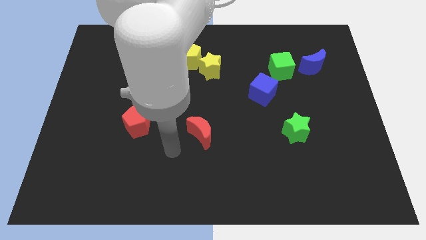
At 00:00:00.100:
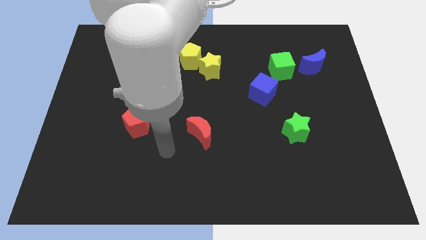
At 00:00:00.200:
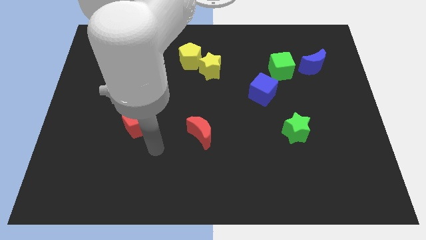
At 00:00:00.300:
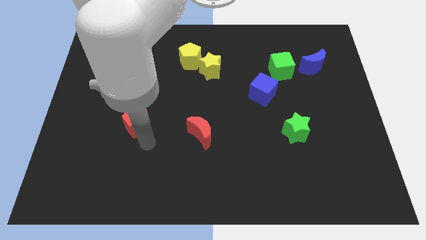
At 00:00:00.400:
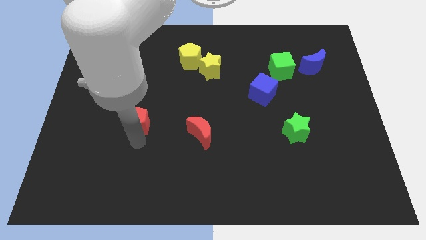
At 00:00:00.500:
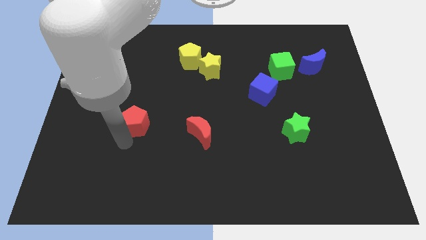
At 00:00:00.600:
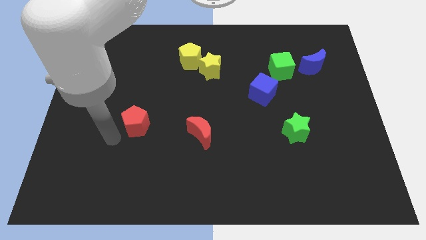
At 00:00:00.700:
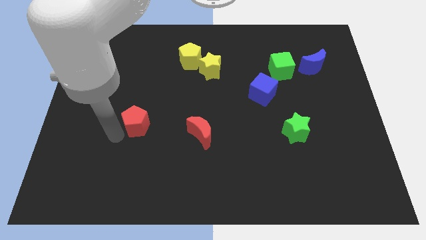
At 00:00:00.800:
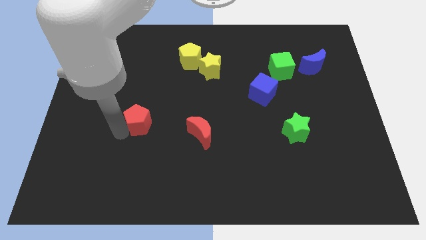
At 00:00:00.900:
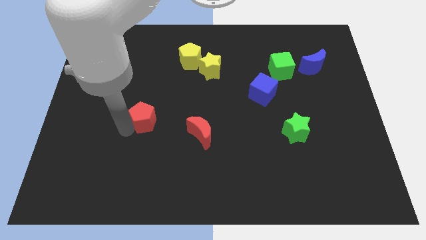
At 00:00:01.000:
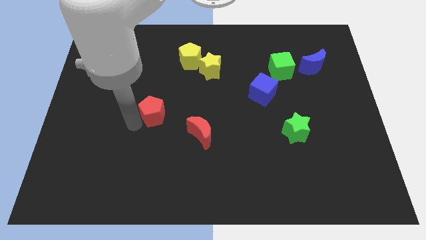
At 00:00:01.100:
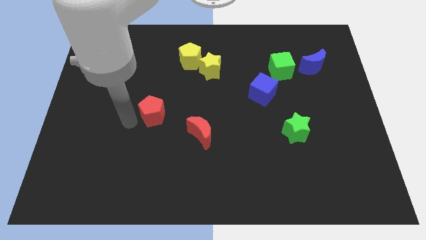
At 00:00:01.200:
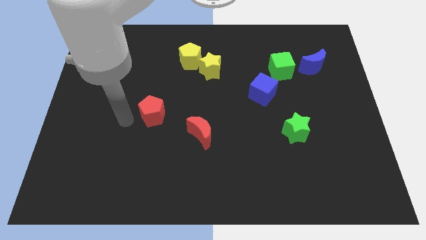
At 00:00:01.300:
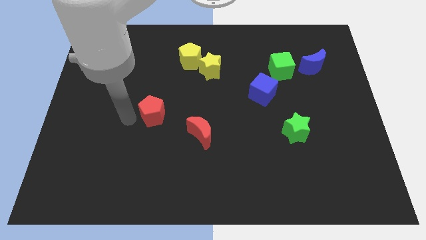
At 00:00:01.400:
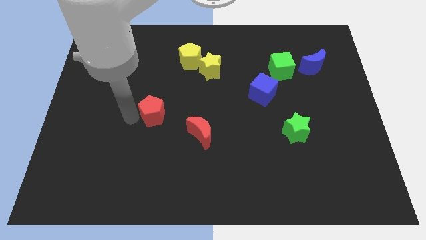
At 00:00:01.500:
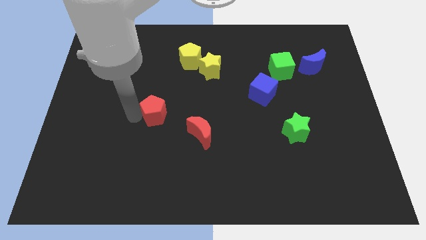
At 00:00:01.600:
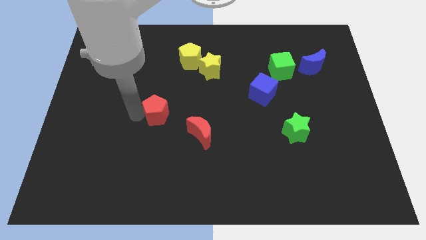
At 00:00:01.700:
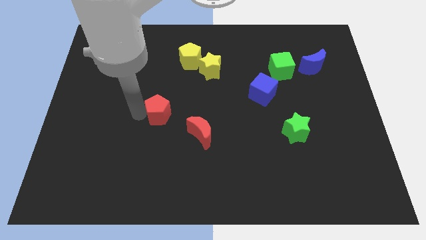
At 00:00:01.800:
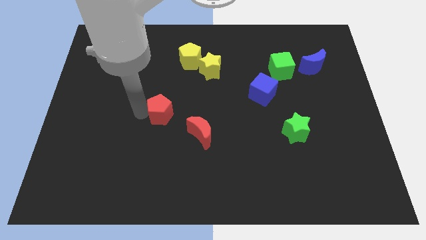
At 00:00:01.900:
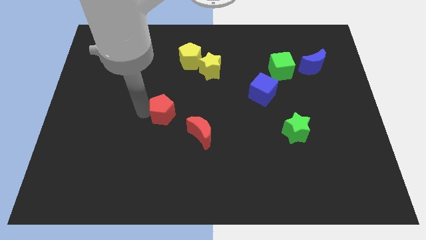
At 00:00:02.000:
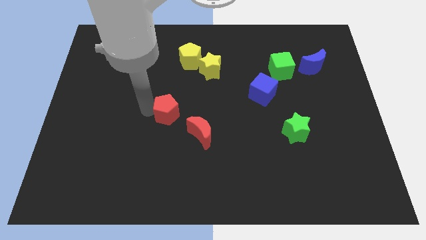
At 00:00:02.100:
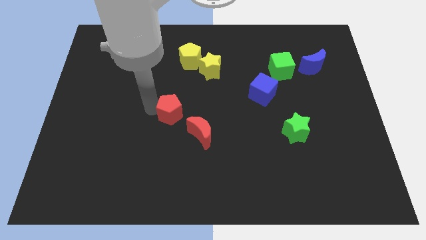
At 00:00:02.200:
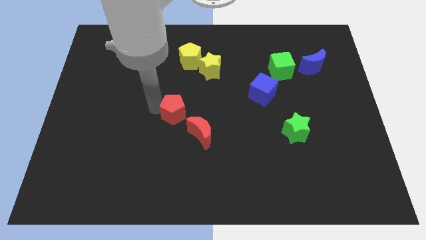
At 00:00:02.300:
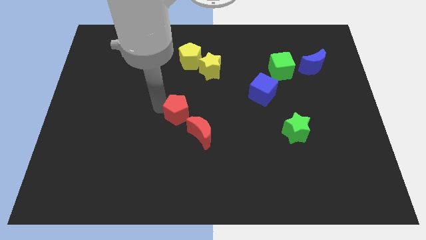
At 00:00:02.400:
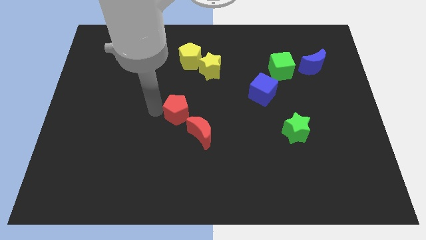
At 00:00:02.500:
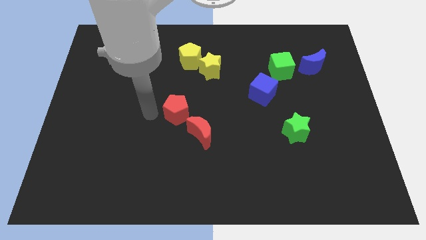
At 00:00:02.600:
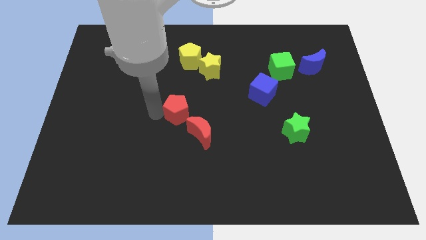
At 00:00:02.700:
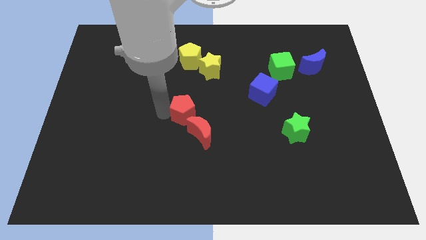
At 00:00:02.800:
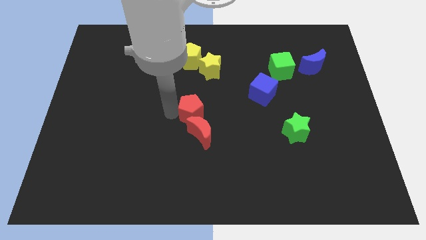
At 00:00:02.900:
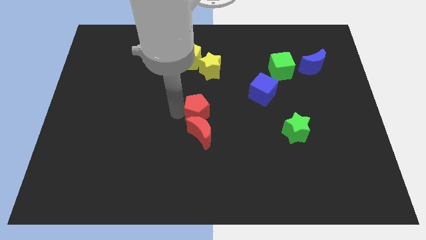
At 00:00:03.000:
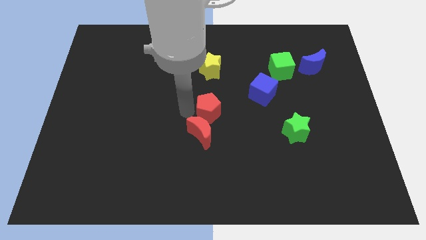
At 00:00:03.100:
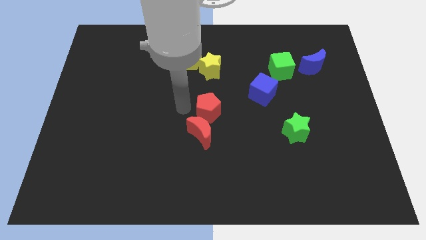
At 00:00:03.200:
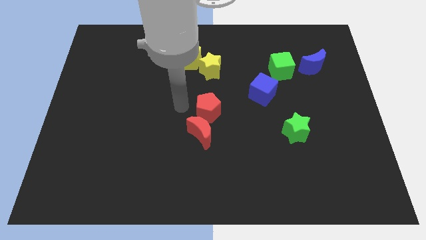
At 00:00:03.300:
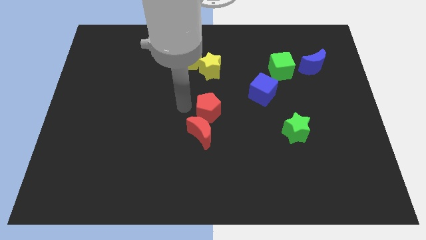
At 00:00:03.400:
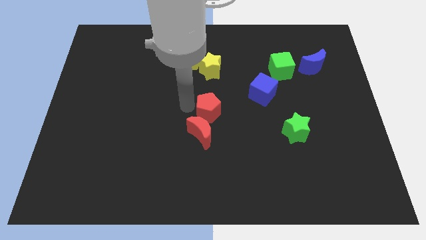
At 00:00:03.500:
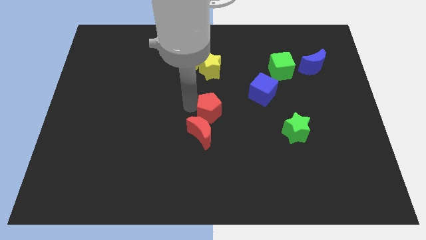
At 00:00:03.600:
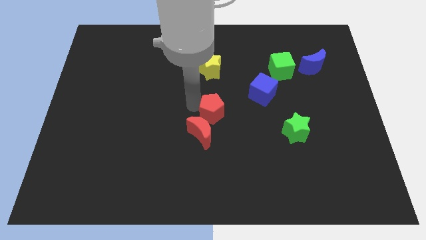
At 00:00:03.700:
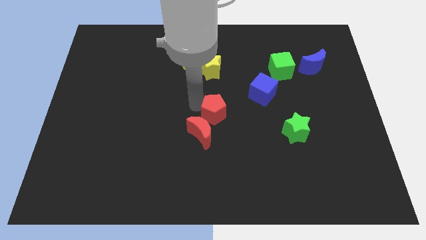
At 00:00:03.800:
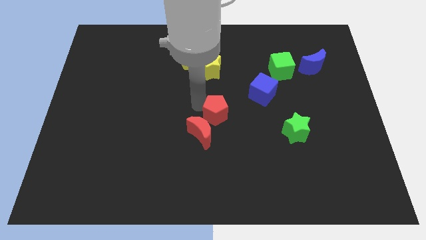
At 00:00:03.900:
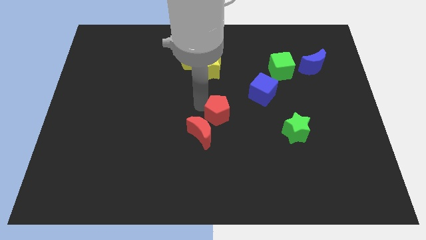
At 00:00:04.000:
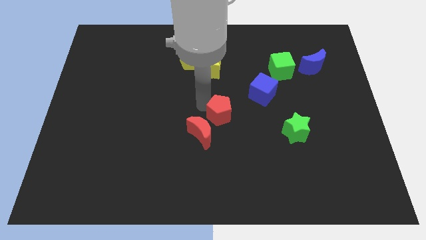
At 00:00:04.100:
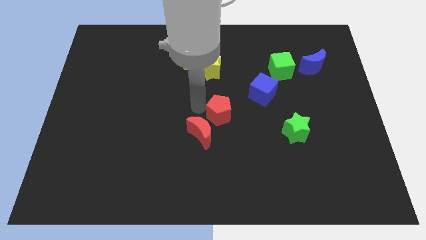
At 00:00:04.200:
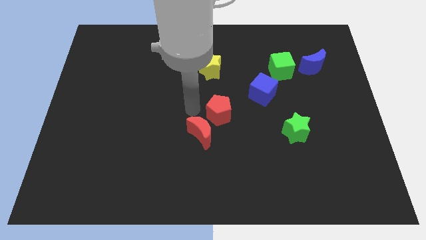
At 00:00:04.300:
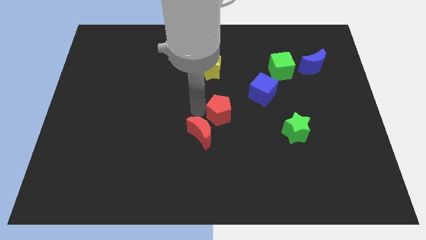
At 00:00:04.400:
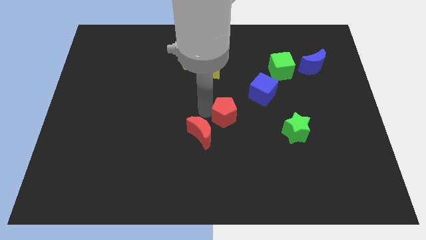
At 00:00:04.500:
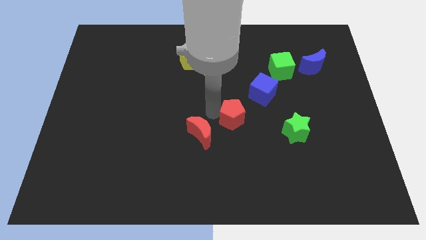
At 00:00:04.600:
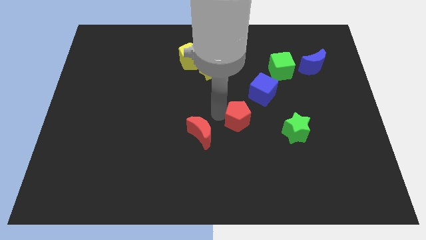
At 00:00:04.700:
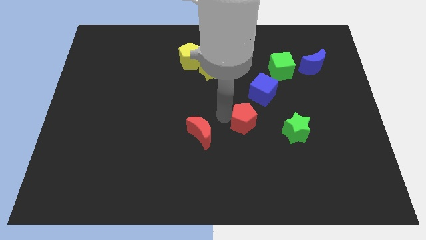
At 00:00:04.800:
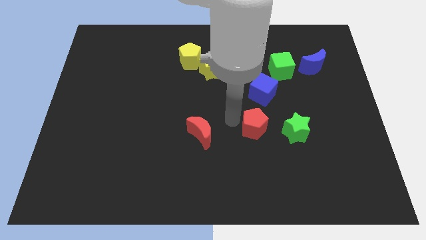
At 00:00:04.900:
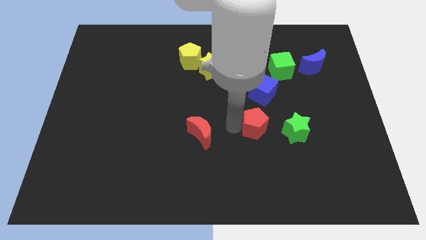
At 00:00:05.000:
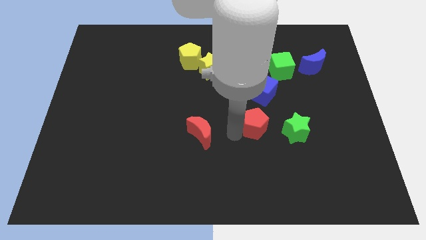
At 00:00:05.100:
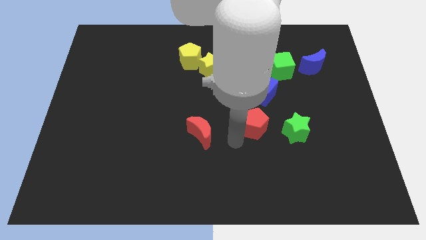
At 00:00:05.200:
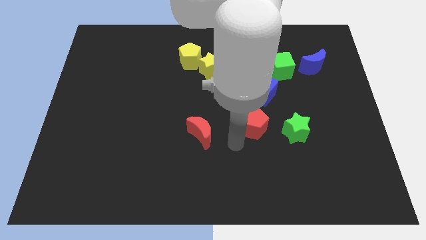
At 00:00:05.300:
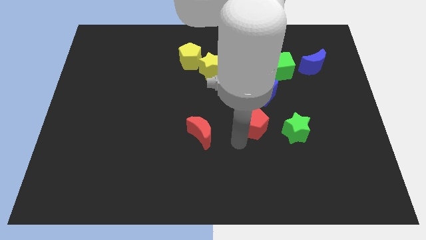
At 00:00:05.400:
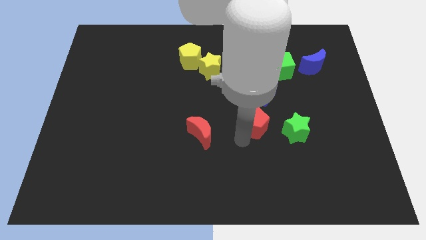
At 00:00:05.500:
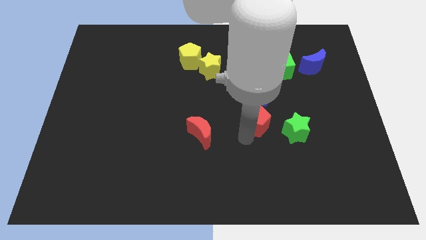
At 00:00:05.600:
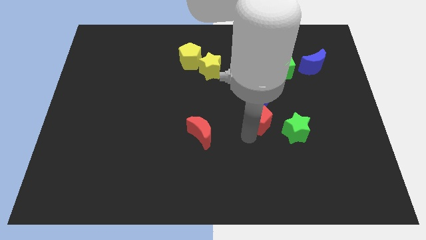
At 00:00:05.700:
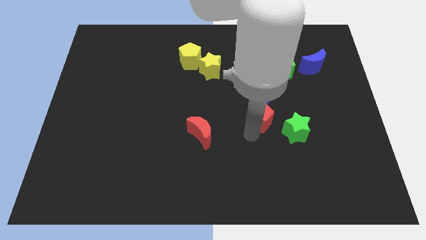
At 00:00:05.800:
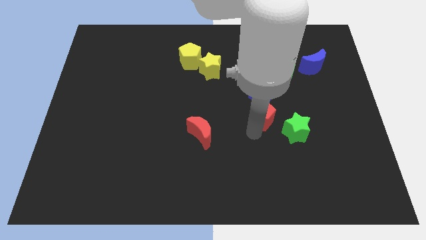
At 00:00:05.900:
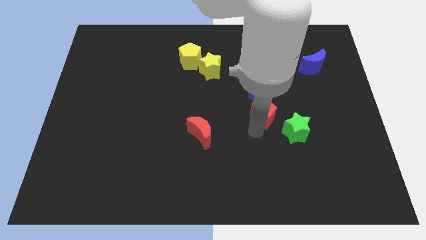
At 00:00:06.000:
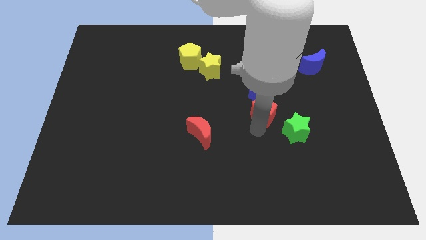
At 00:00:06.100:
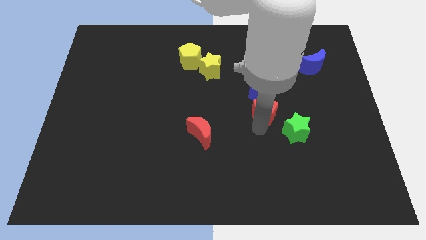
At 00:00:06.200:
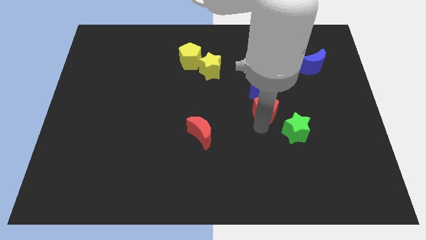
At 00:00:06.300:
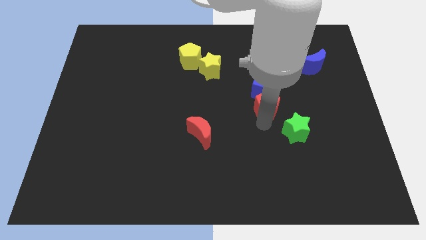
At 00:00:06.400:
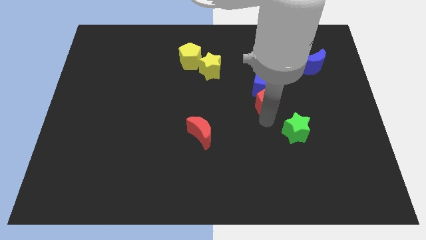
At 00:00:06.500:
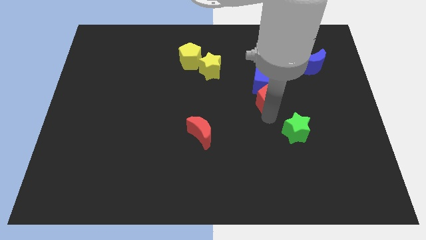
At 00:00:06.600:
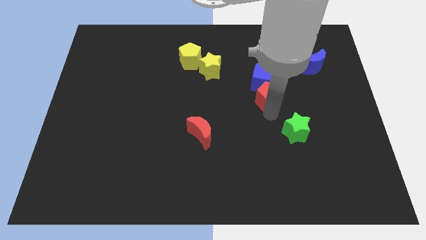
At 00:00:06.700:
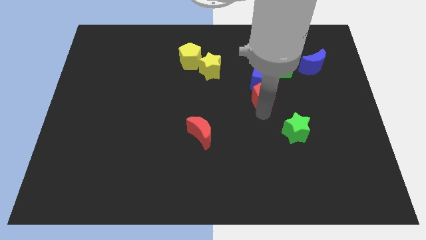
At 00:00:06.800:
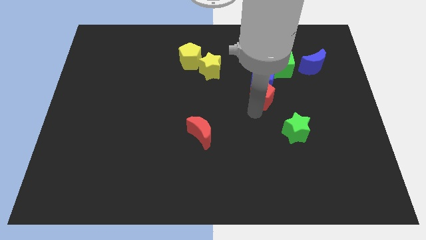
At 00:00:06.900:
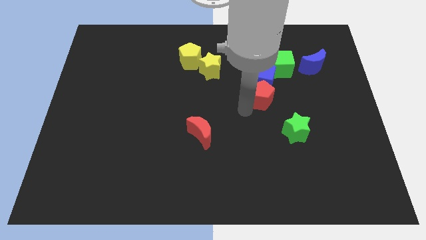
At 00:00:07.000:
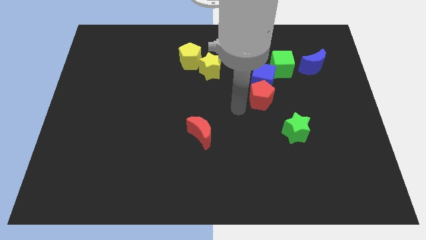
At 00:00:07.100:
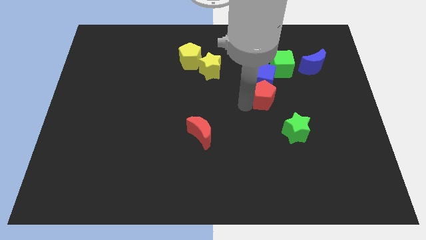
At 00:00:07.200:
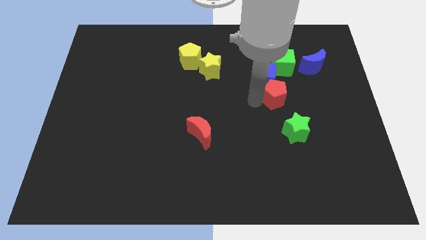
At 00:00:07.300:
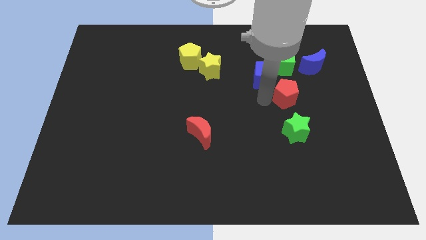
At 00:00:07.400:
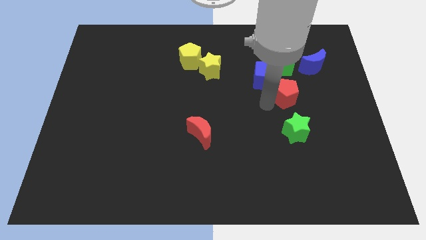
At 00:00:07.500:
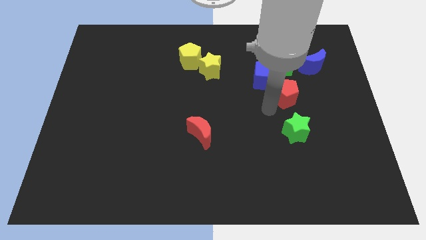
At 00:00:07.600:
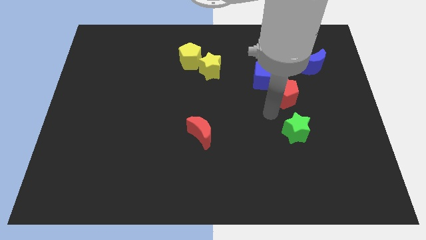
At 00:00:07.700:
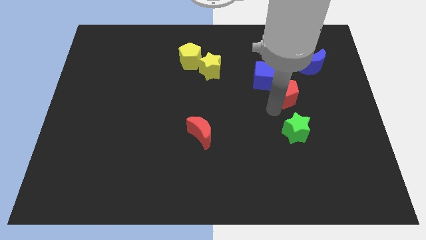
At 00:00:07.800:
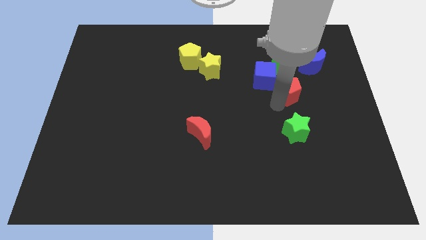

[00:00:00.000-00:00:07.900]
push the red pentagon to the bottom left side of the blue moon

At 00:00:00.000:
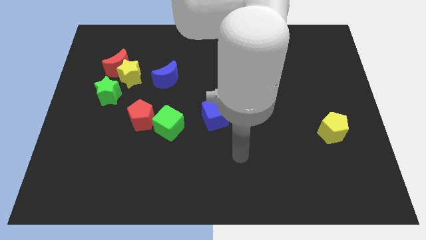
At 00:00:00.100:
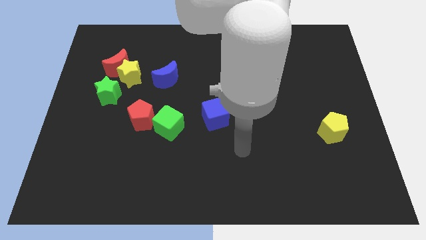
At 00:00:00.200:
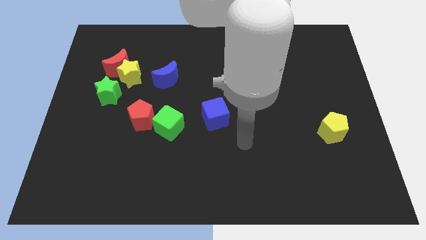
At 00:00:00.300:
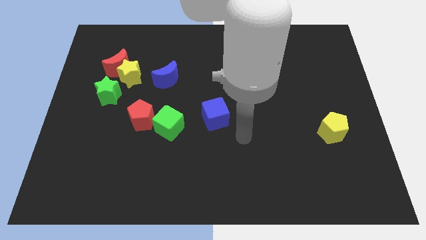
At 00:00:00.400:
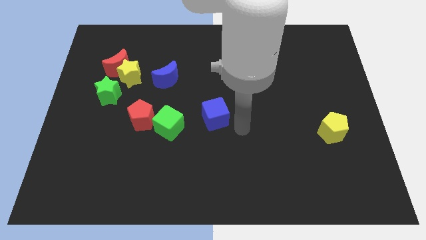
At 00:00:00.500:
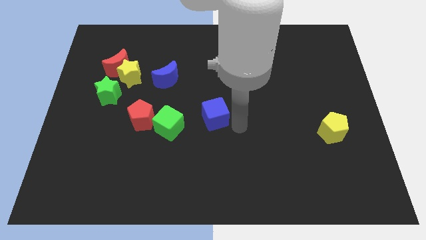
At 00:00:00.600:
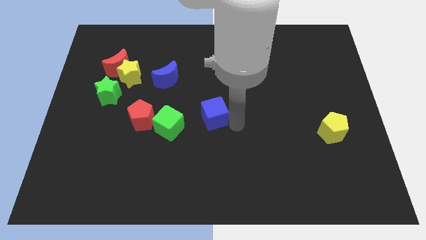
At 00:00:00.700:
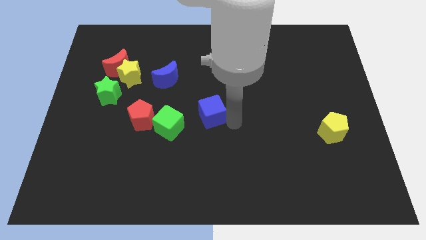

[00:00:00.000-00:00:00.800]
put the blue cube diagonally up and to the right of the green cube
